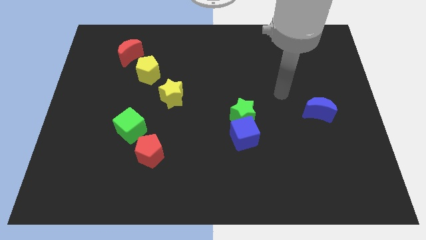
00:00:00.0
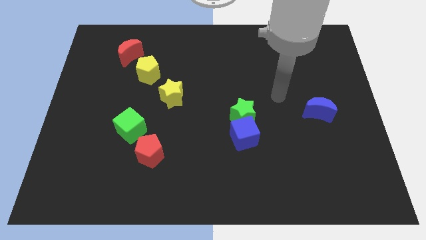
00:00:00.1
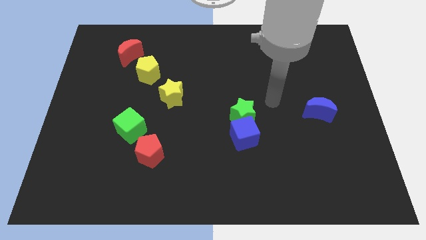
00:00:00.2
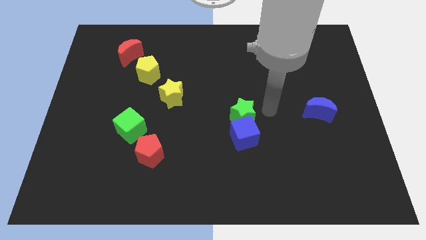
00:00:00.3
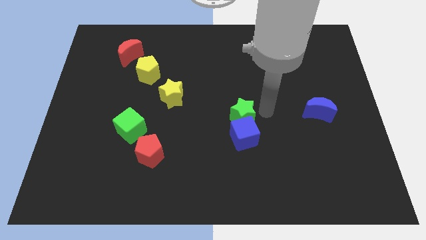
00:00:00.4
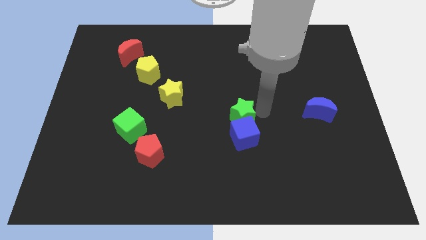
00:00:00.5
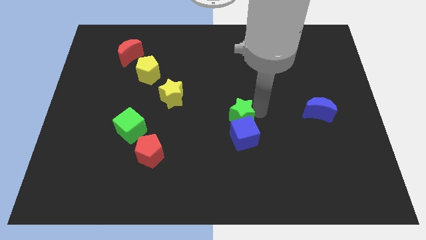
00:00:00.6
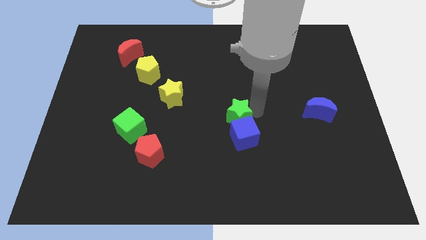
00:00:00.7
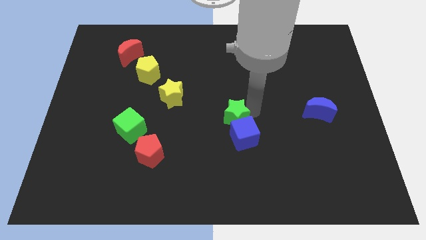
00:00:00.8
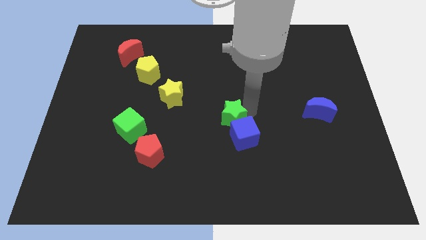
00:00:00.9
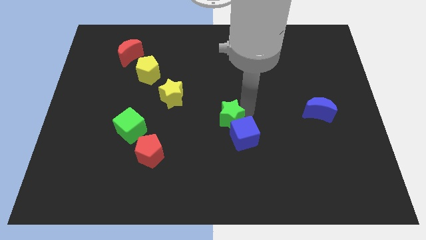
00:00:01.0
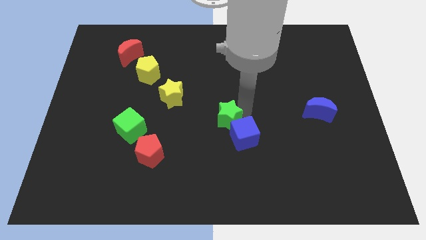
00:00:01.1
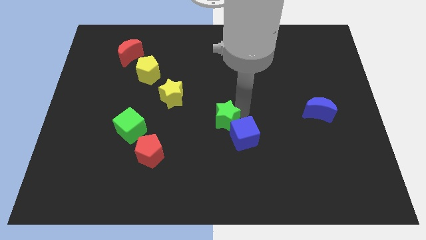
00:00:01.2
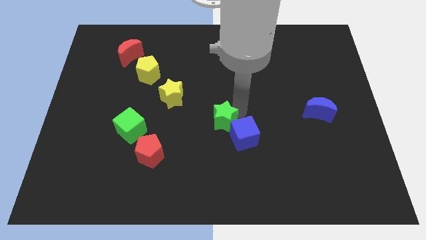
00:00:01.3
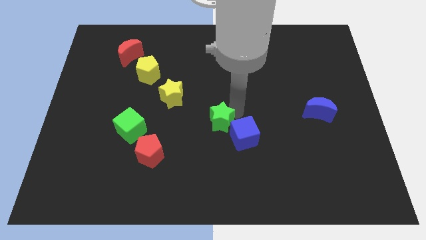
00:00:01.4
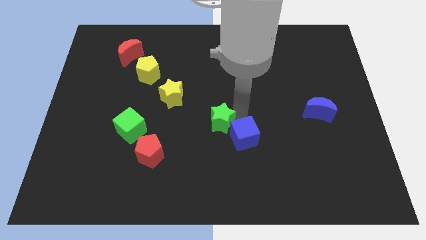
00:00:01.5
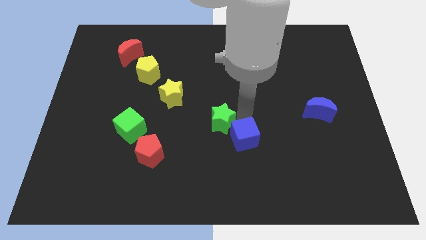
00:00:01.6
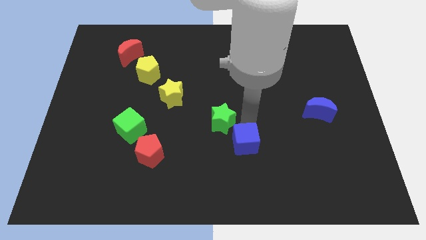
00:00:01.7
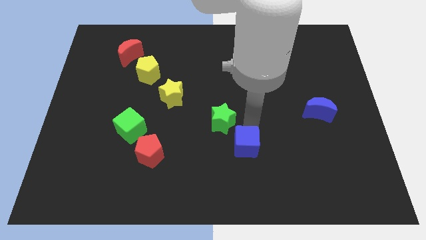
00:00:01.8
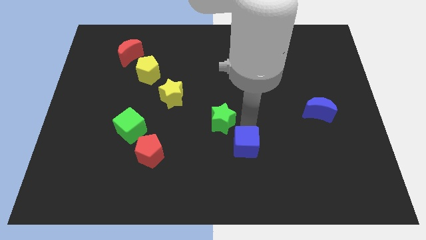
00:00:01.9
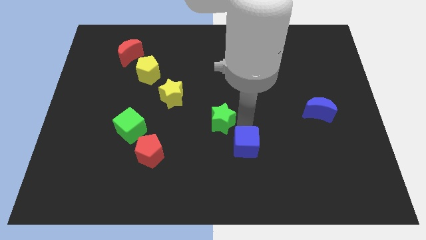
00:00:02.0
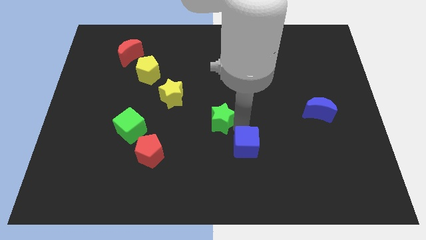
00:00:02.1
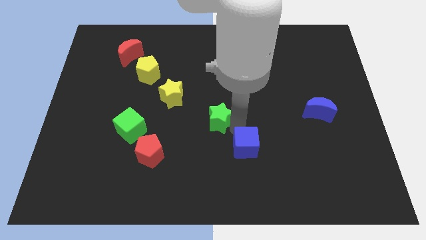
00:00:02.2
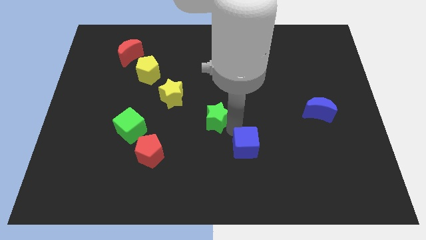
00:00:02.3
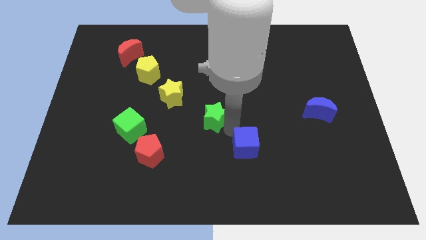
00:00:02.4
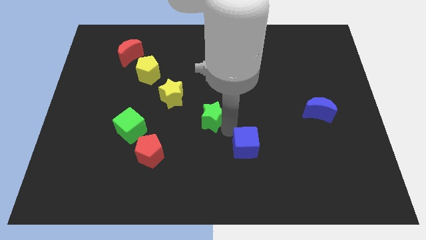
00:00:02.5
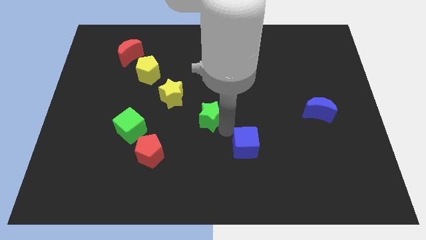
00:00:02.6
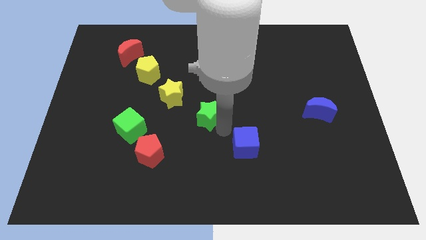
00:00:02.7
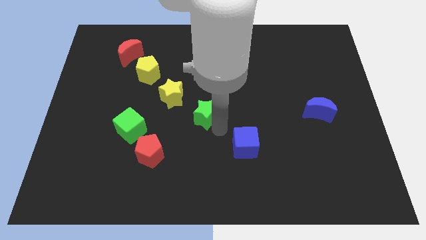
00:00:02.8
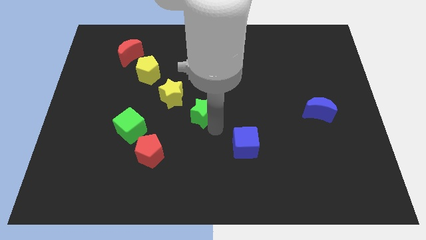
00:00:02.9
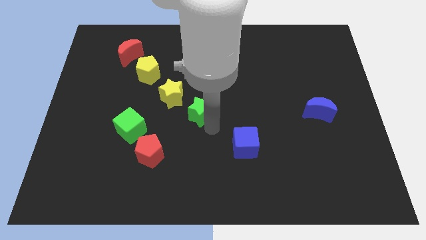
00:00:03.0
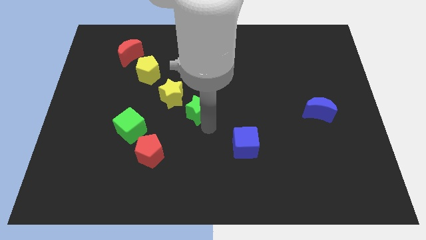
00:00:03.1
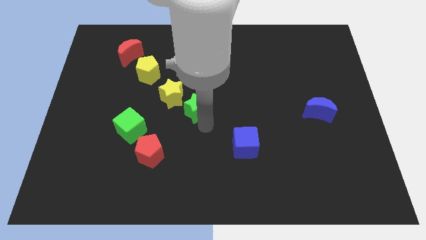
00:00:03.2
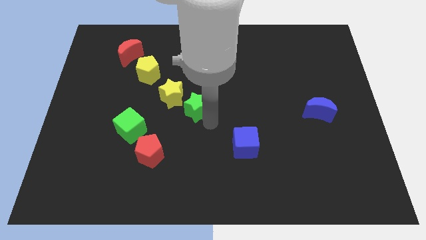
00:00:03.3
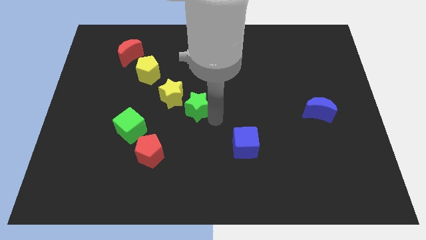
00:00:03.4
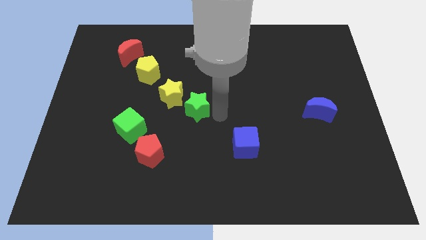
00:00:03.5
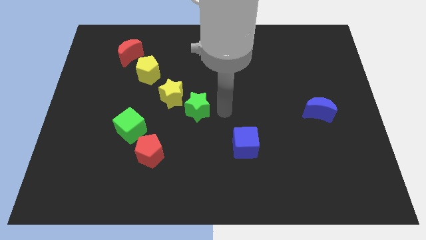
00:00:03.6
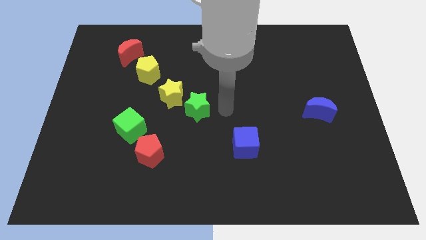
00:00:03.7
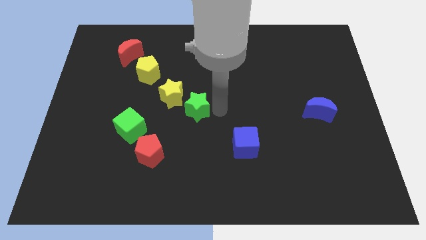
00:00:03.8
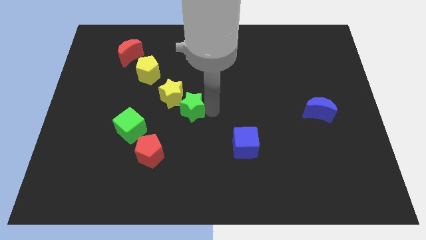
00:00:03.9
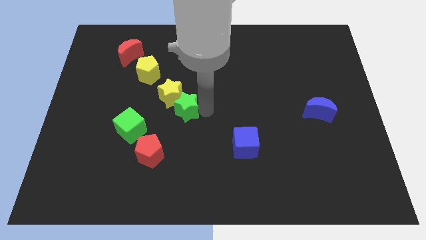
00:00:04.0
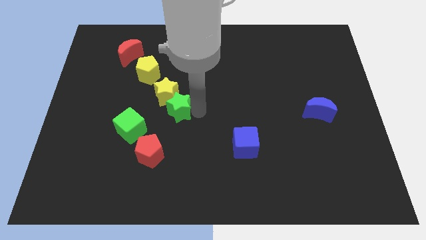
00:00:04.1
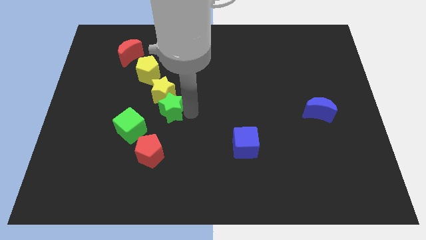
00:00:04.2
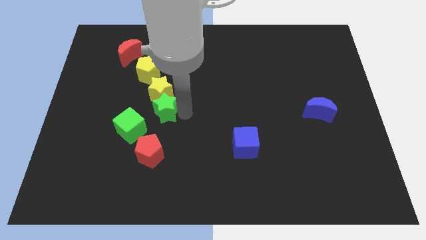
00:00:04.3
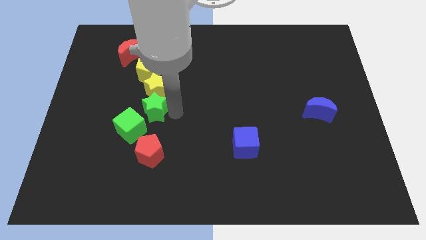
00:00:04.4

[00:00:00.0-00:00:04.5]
push the green star left

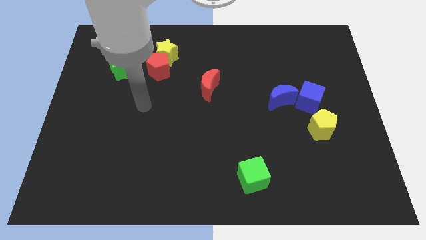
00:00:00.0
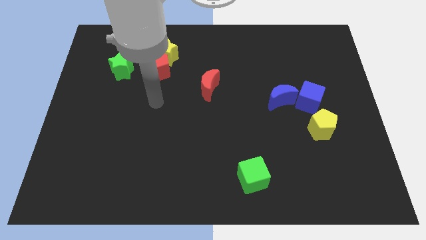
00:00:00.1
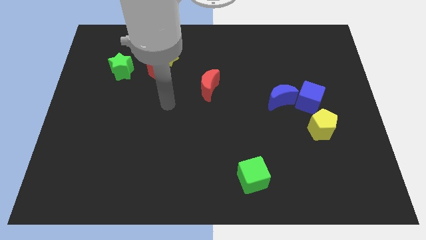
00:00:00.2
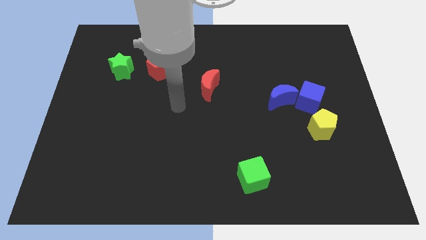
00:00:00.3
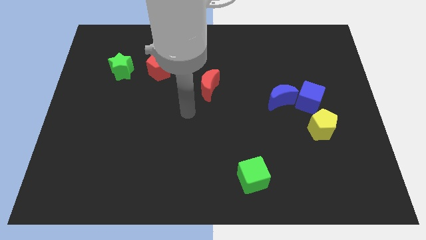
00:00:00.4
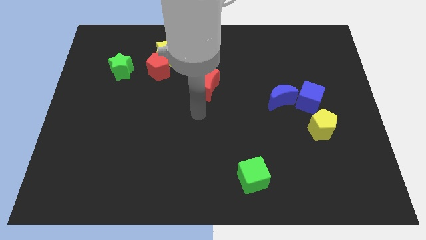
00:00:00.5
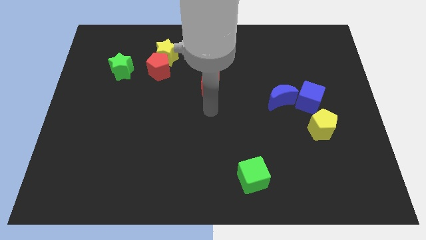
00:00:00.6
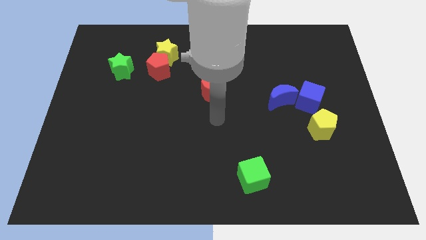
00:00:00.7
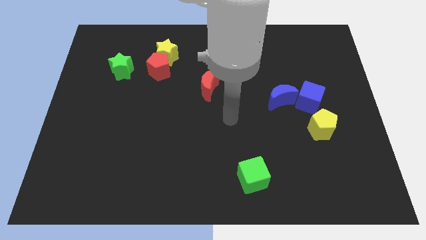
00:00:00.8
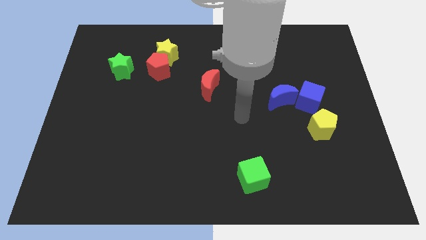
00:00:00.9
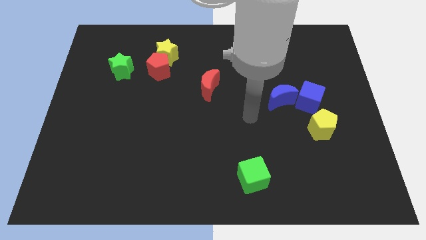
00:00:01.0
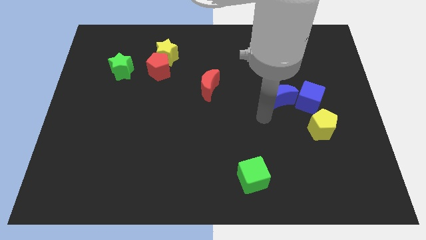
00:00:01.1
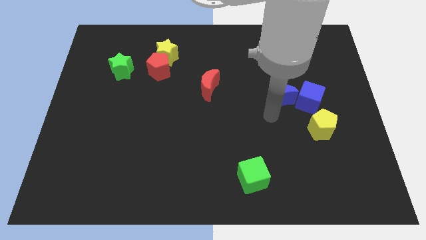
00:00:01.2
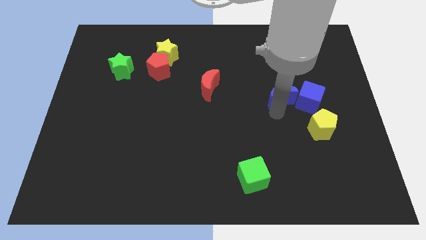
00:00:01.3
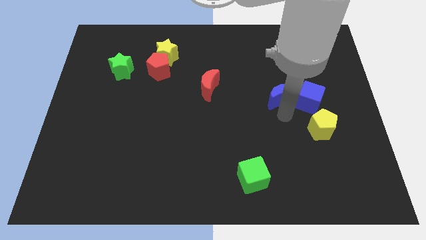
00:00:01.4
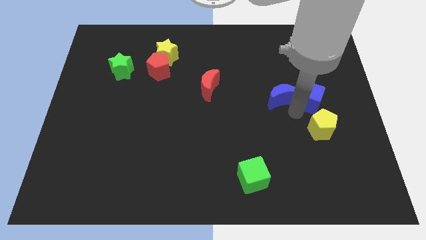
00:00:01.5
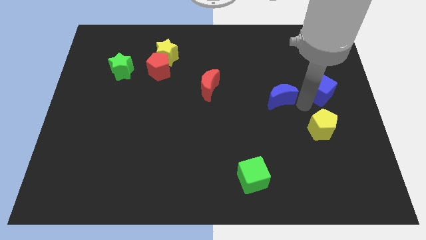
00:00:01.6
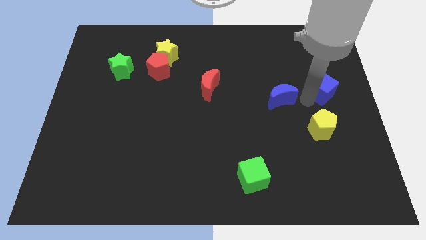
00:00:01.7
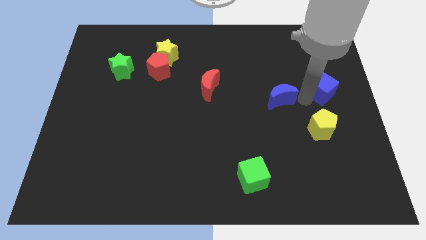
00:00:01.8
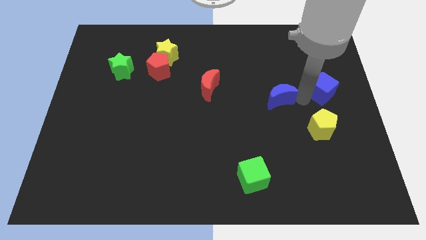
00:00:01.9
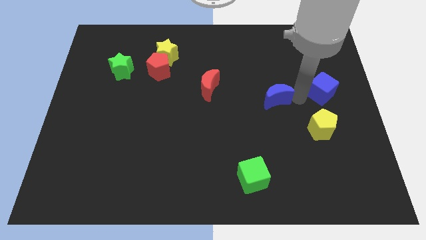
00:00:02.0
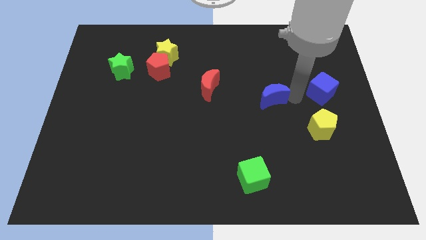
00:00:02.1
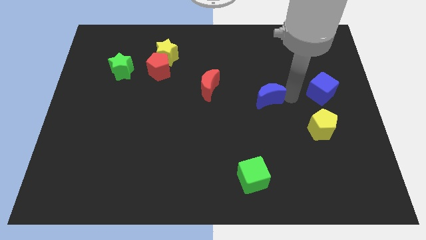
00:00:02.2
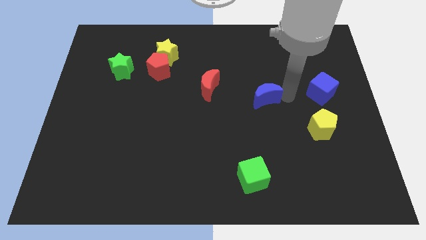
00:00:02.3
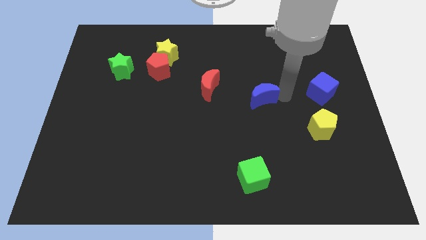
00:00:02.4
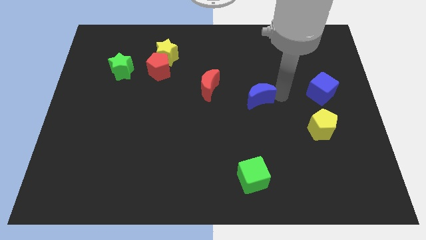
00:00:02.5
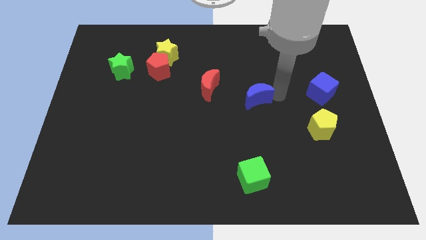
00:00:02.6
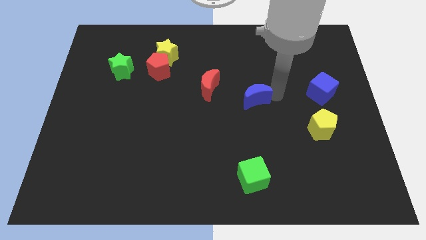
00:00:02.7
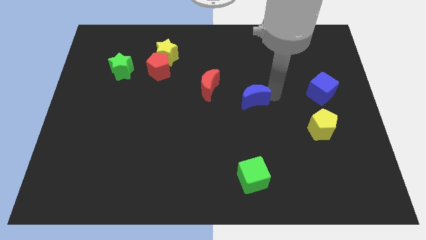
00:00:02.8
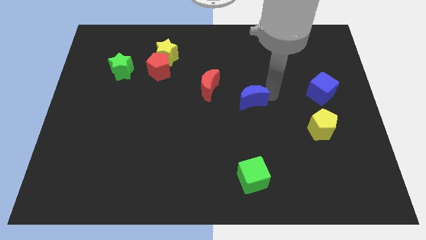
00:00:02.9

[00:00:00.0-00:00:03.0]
push the blue moon somewhat to the left

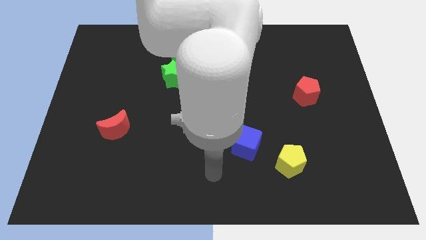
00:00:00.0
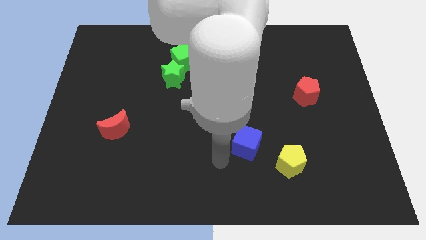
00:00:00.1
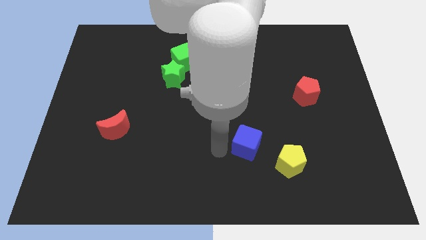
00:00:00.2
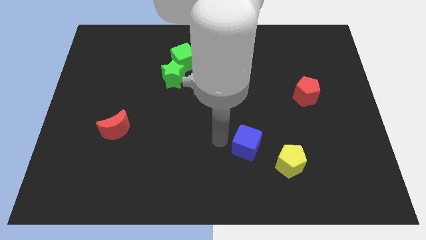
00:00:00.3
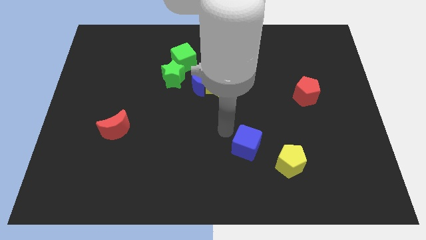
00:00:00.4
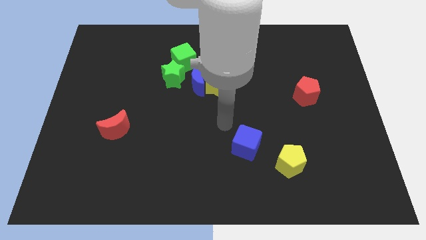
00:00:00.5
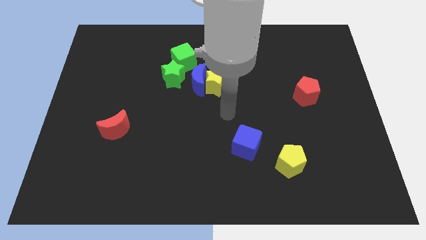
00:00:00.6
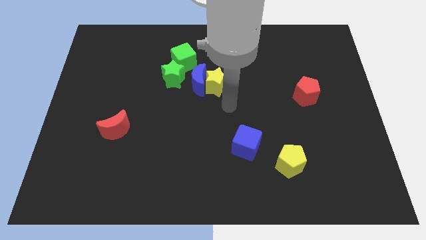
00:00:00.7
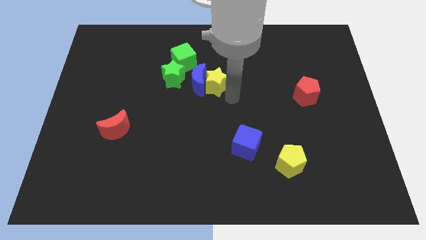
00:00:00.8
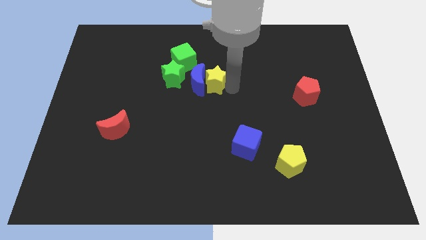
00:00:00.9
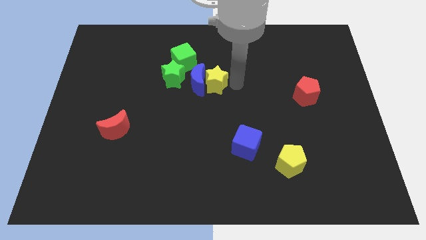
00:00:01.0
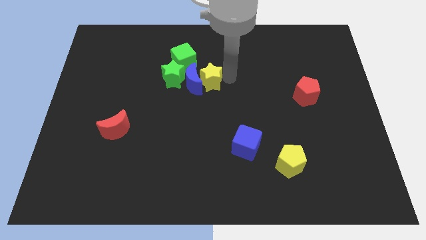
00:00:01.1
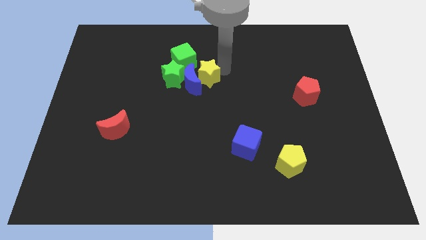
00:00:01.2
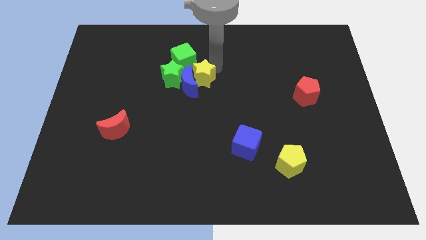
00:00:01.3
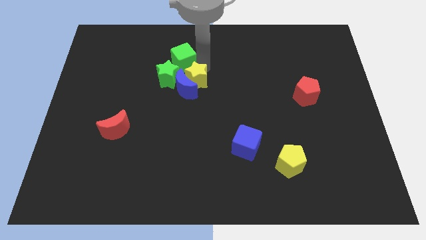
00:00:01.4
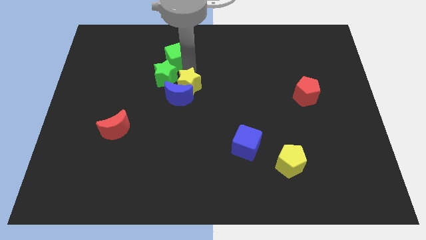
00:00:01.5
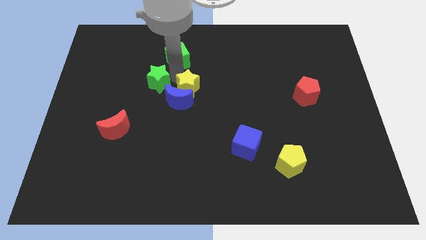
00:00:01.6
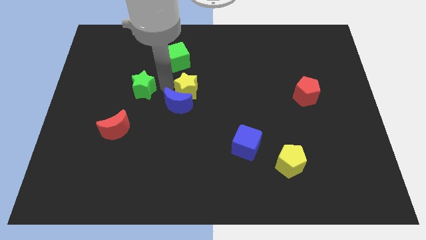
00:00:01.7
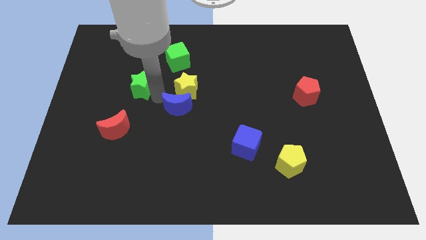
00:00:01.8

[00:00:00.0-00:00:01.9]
push the blue moon somewhat downwards
